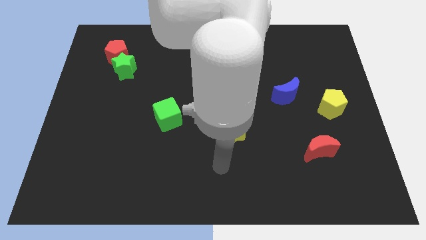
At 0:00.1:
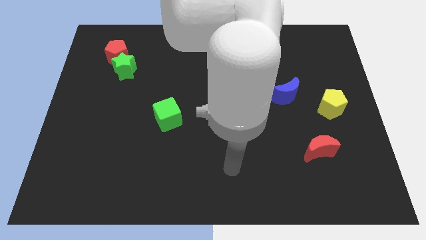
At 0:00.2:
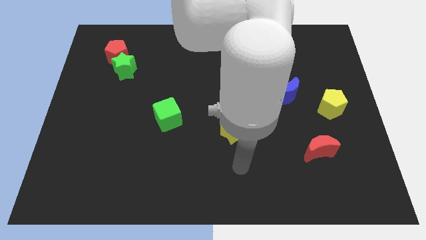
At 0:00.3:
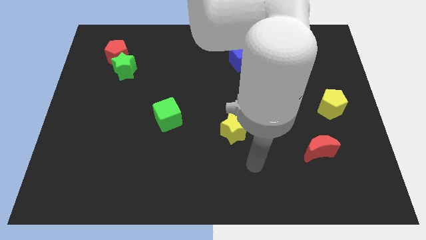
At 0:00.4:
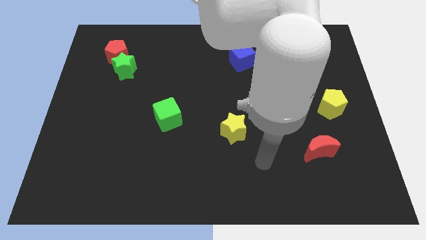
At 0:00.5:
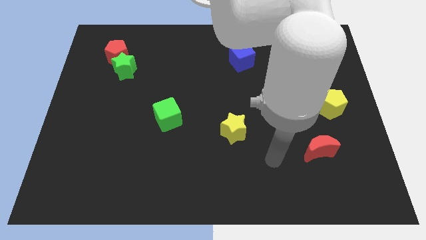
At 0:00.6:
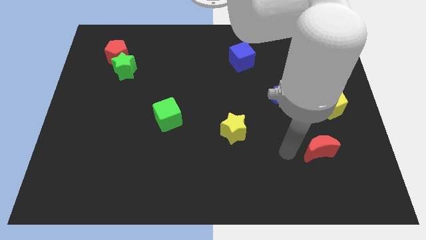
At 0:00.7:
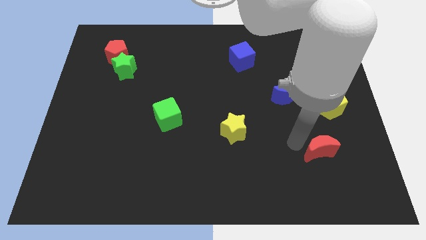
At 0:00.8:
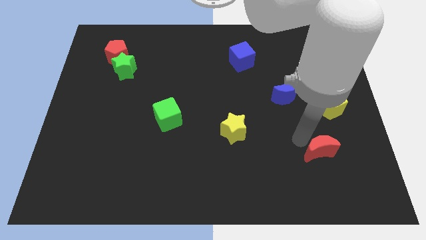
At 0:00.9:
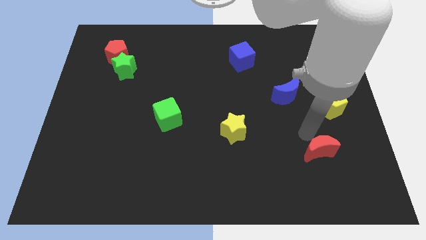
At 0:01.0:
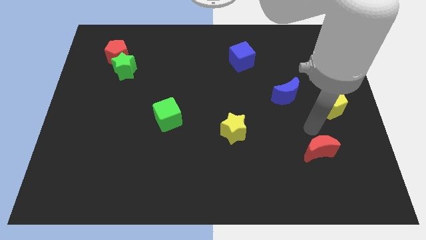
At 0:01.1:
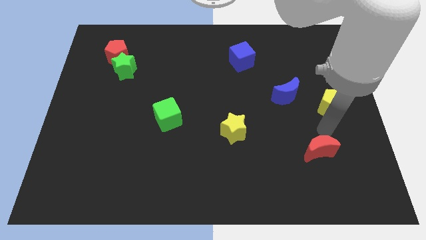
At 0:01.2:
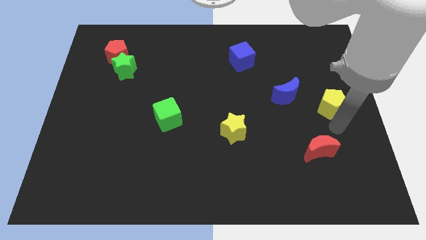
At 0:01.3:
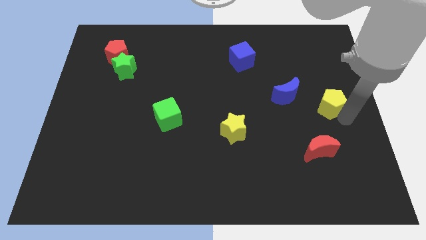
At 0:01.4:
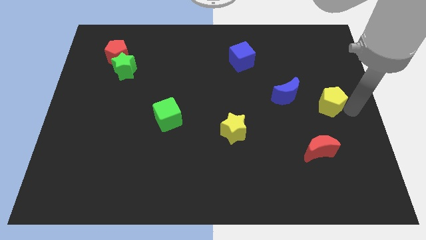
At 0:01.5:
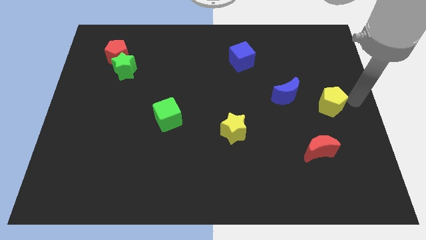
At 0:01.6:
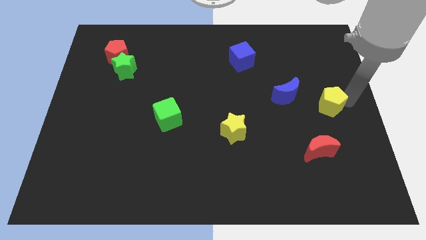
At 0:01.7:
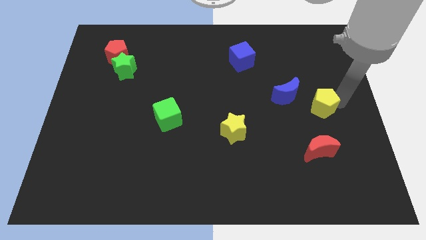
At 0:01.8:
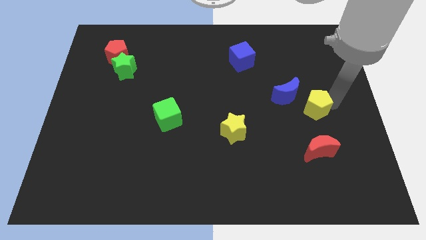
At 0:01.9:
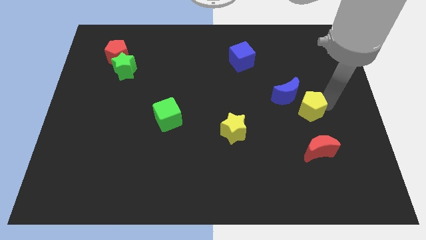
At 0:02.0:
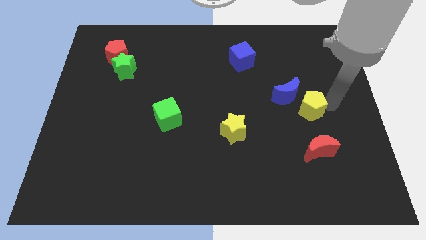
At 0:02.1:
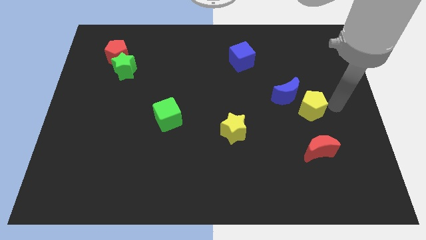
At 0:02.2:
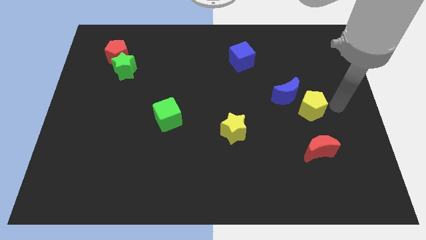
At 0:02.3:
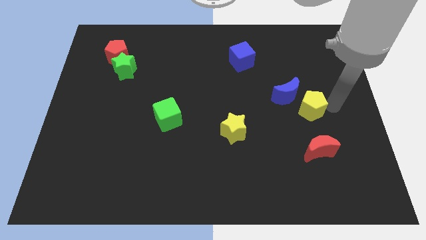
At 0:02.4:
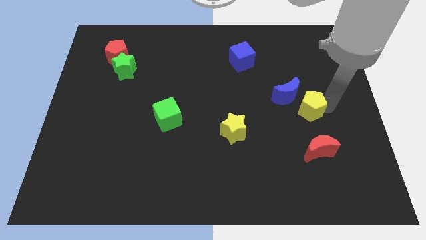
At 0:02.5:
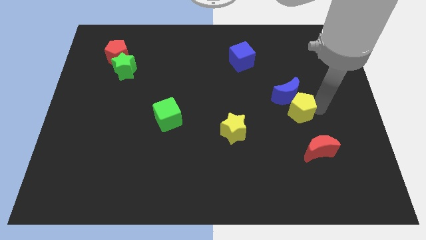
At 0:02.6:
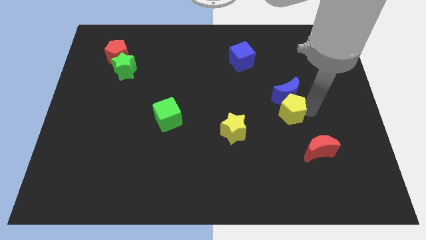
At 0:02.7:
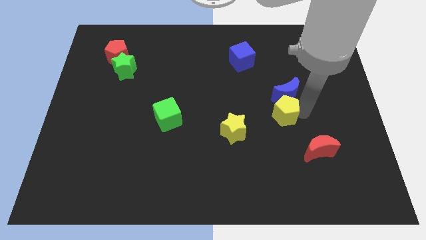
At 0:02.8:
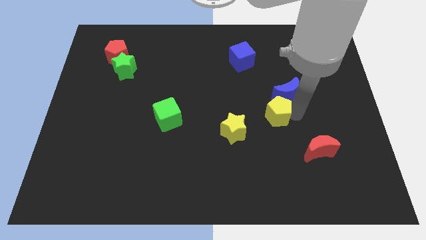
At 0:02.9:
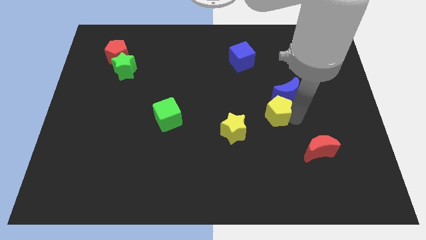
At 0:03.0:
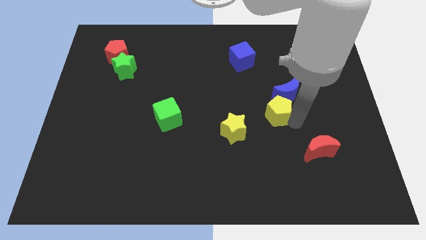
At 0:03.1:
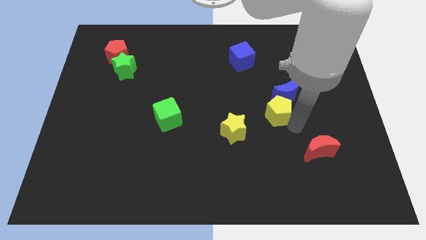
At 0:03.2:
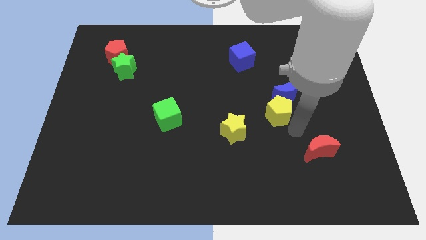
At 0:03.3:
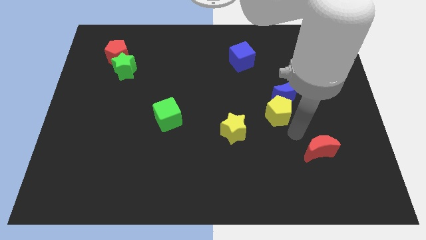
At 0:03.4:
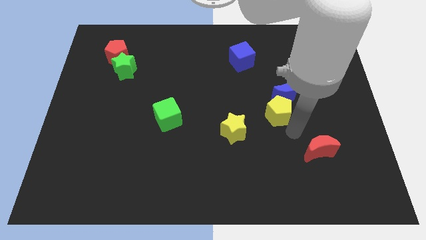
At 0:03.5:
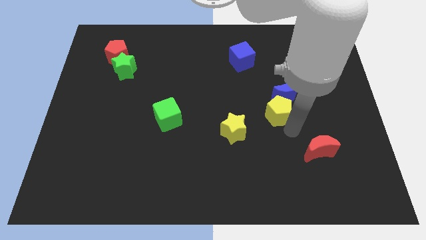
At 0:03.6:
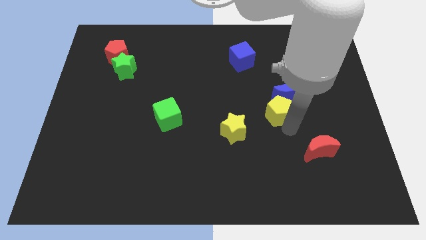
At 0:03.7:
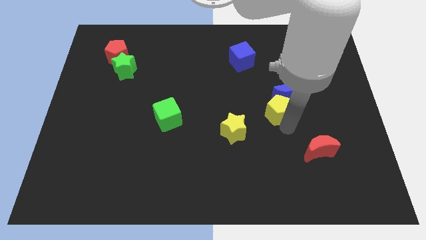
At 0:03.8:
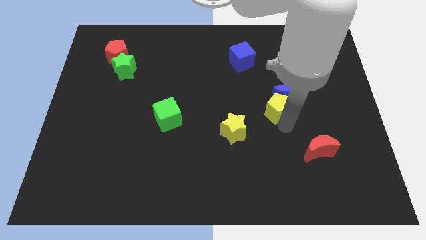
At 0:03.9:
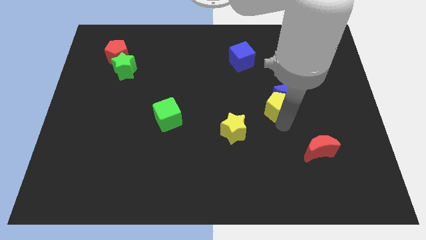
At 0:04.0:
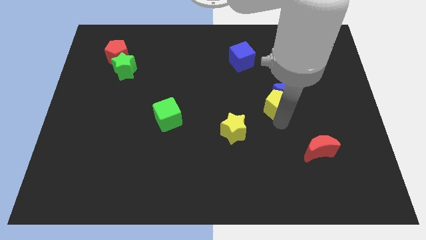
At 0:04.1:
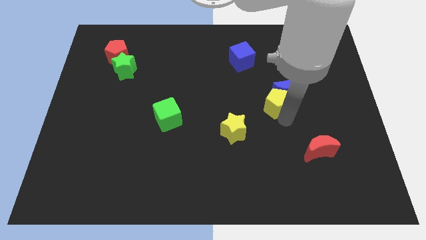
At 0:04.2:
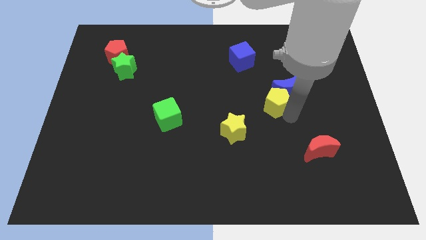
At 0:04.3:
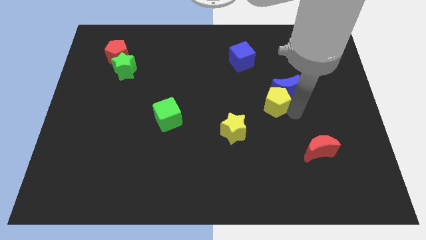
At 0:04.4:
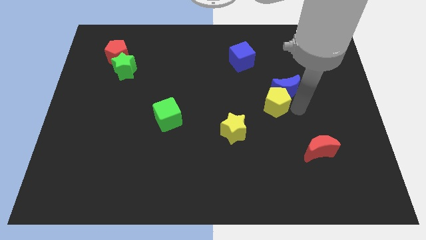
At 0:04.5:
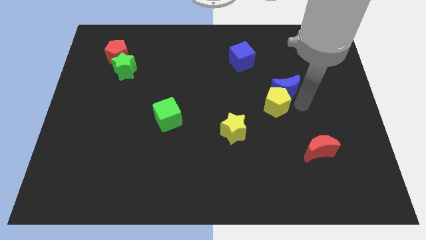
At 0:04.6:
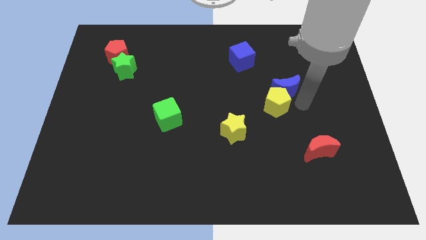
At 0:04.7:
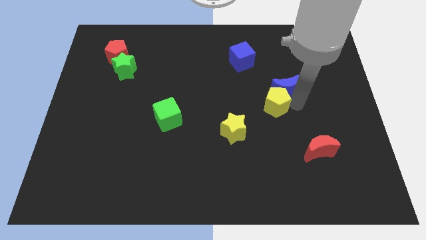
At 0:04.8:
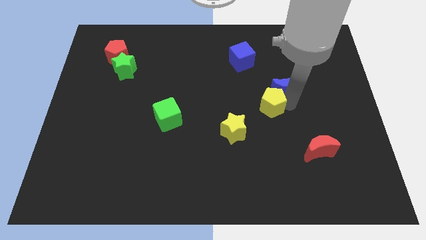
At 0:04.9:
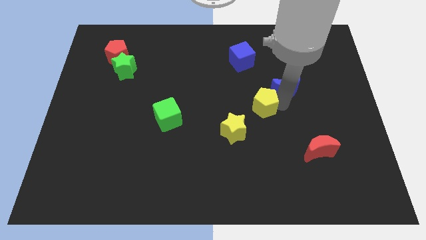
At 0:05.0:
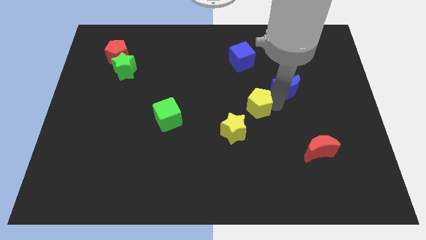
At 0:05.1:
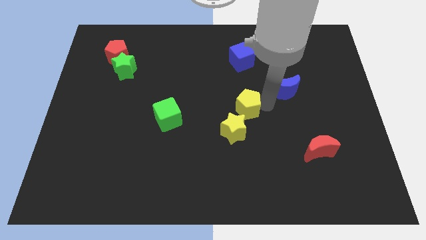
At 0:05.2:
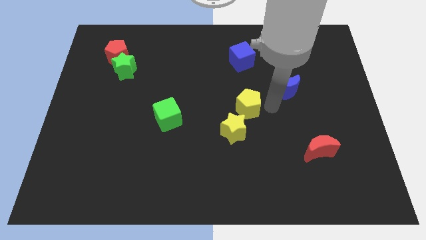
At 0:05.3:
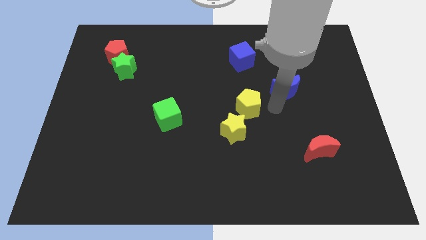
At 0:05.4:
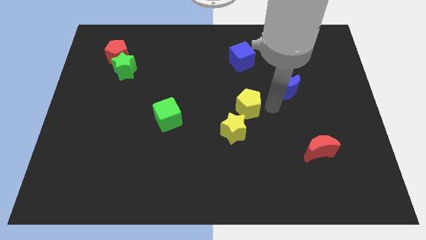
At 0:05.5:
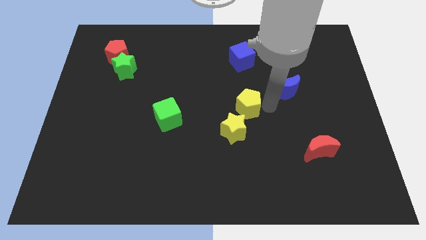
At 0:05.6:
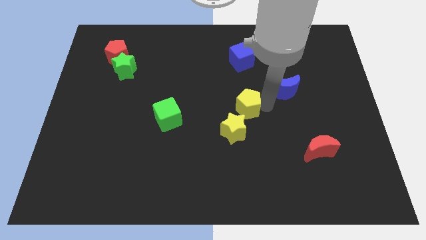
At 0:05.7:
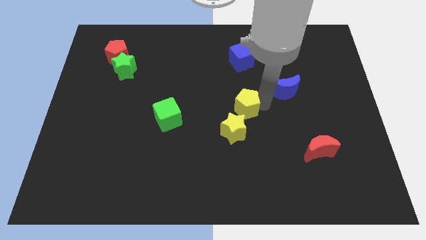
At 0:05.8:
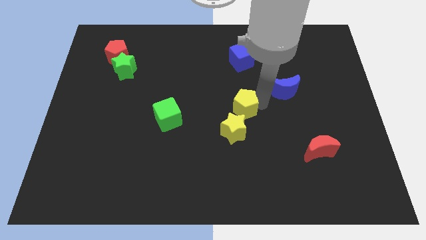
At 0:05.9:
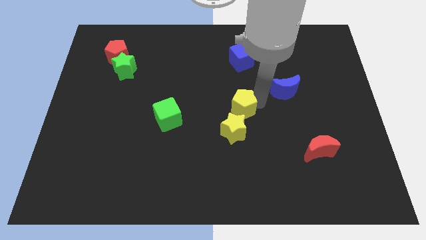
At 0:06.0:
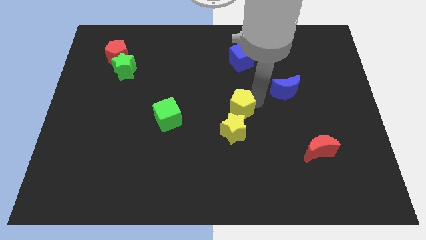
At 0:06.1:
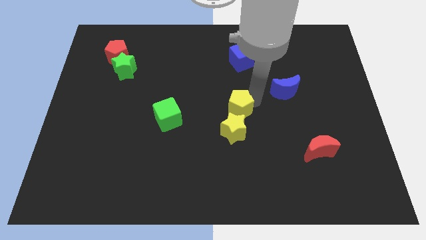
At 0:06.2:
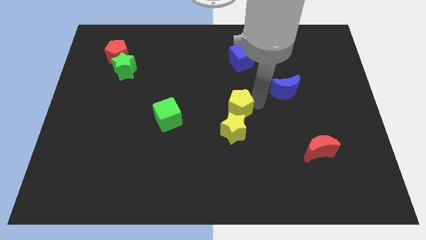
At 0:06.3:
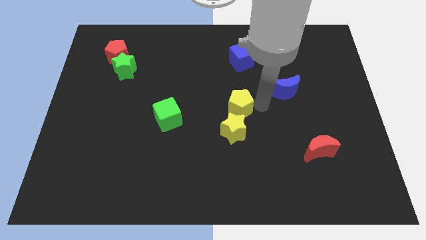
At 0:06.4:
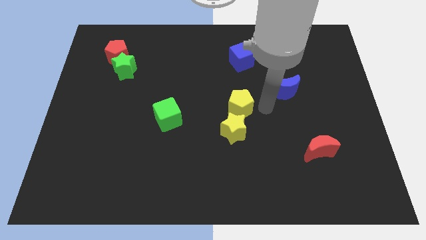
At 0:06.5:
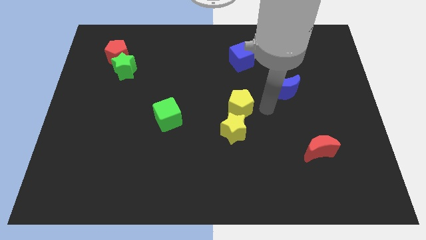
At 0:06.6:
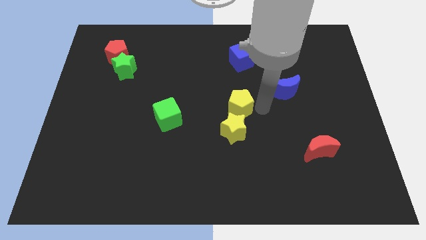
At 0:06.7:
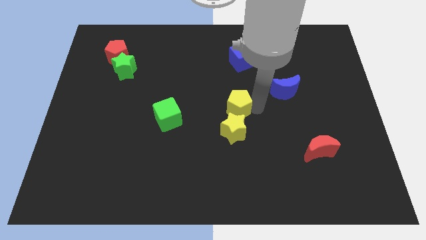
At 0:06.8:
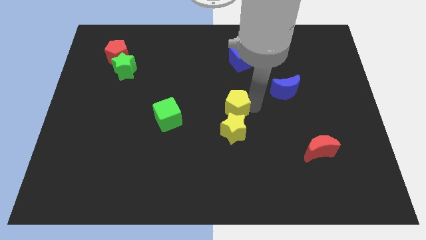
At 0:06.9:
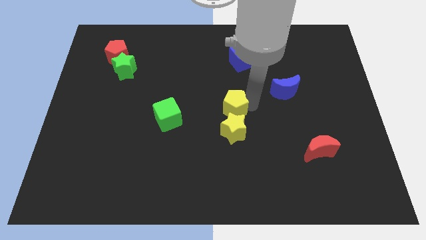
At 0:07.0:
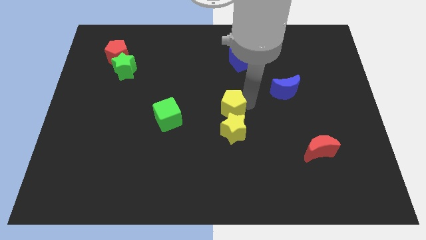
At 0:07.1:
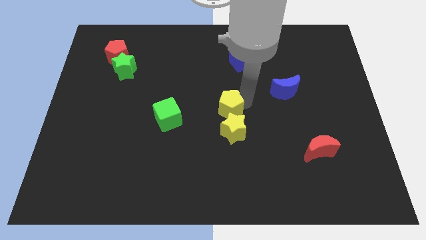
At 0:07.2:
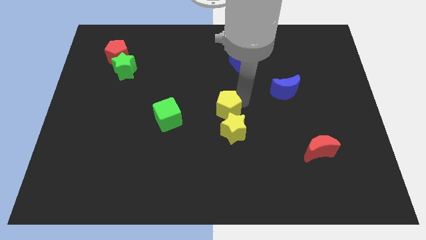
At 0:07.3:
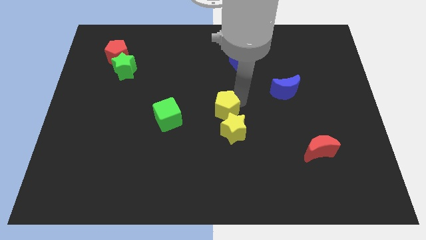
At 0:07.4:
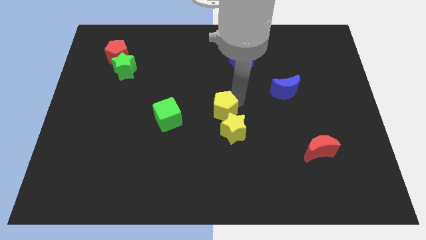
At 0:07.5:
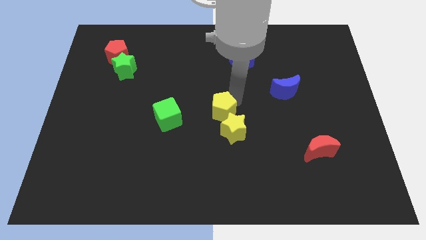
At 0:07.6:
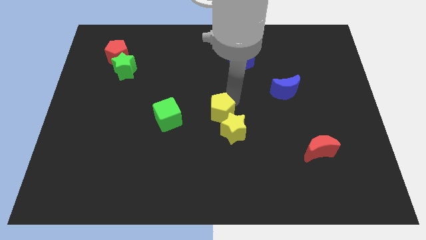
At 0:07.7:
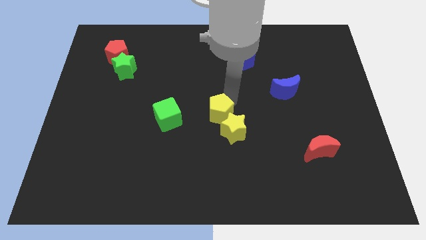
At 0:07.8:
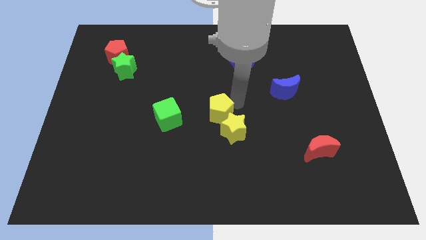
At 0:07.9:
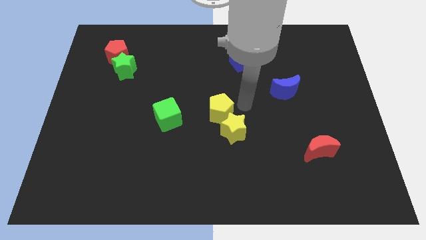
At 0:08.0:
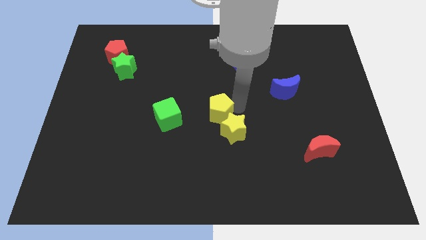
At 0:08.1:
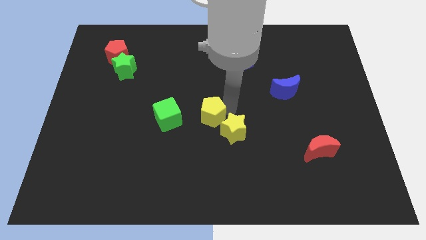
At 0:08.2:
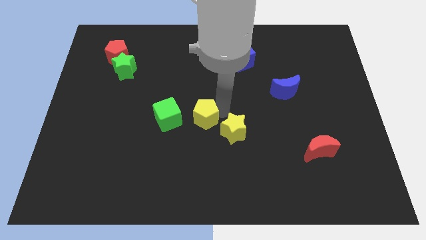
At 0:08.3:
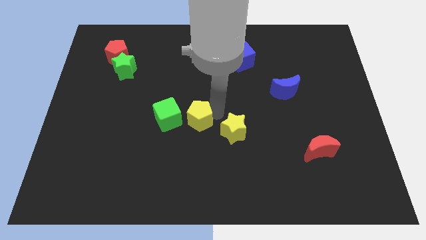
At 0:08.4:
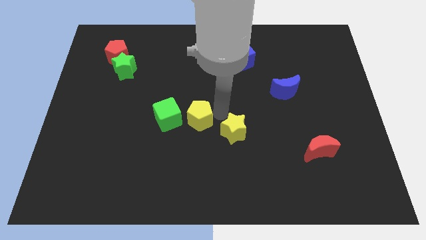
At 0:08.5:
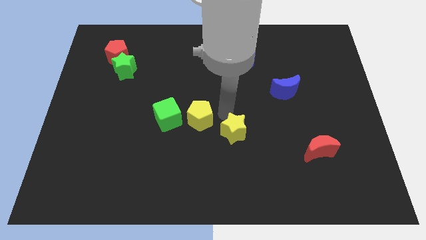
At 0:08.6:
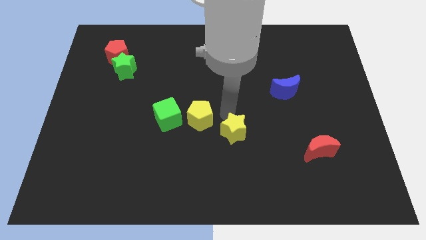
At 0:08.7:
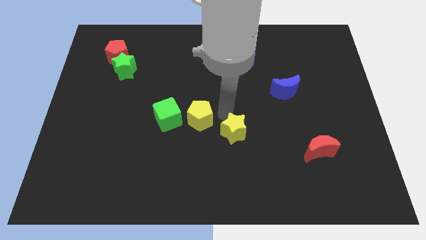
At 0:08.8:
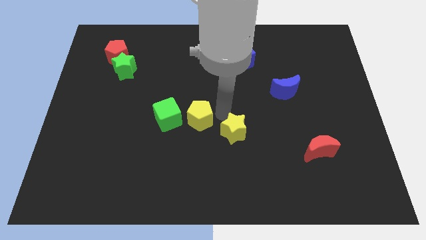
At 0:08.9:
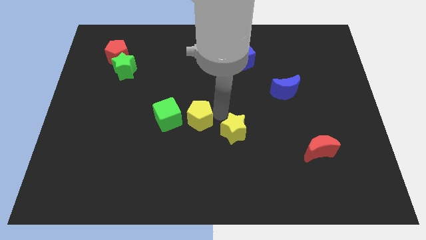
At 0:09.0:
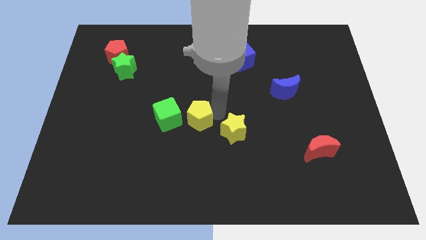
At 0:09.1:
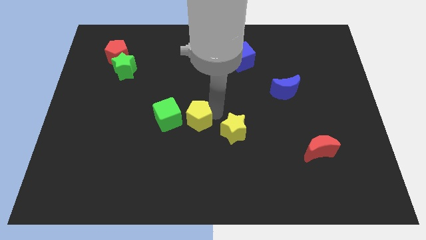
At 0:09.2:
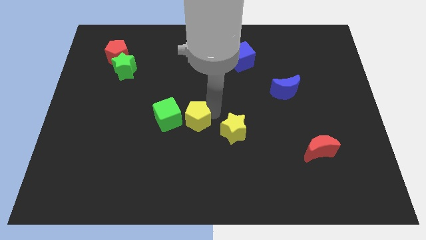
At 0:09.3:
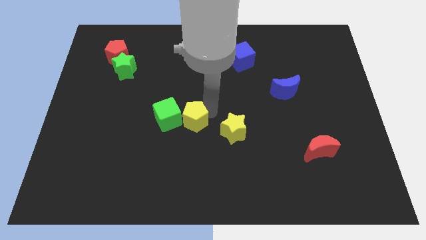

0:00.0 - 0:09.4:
put the yellow pentagon close to the green cube
